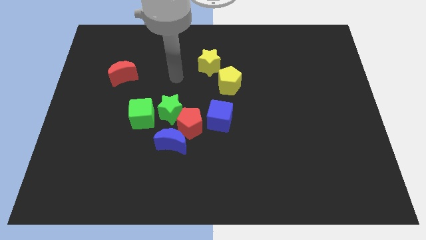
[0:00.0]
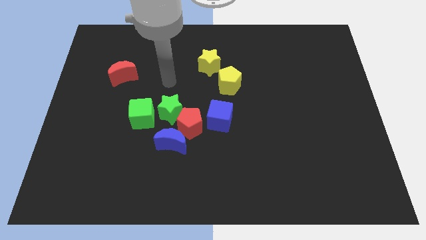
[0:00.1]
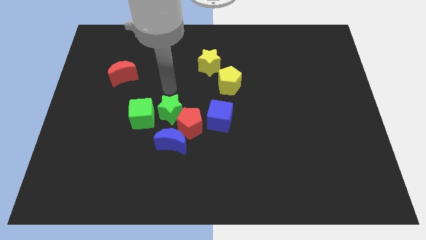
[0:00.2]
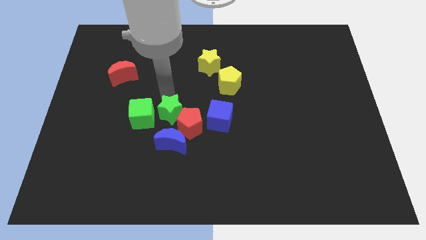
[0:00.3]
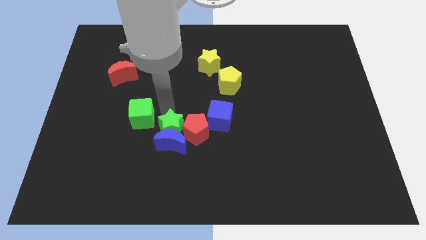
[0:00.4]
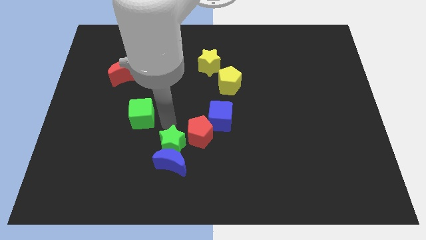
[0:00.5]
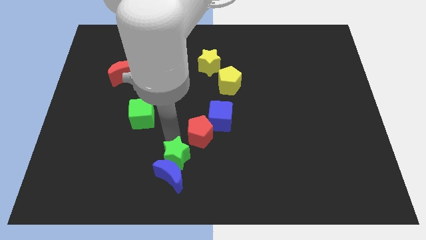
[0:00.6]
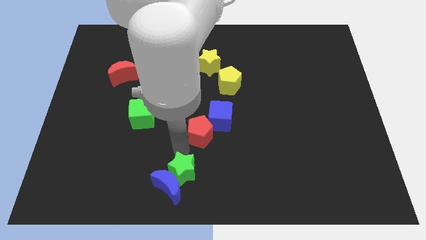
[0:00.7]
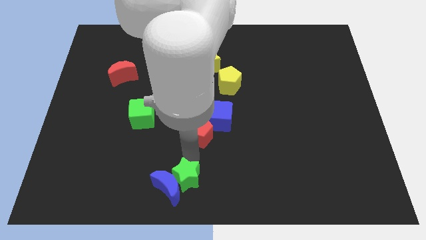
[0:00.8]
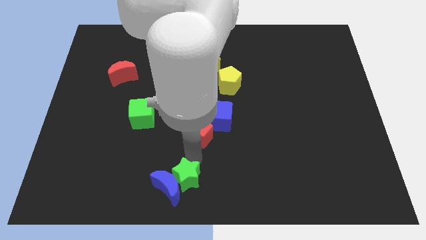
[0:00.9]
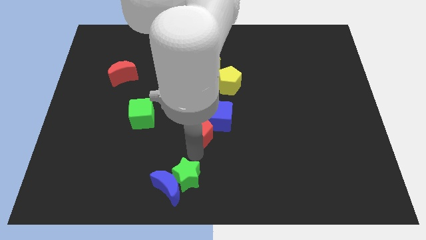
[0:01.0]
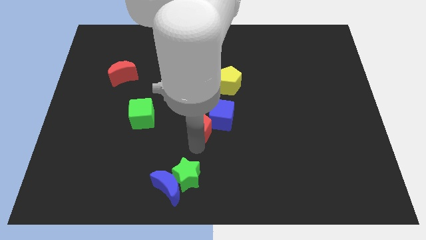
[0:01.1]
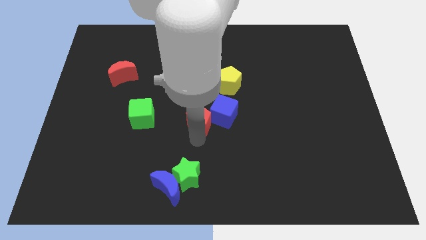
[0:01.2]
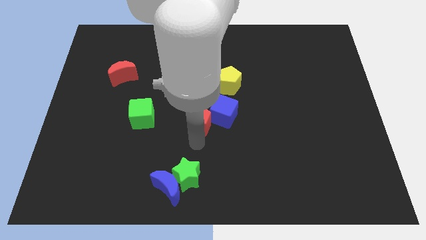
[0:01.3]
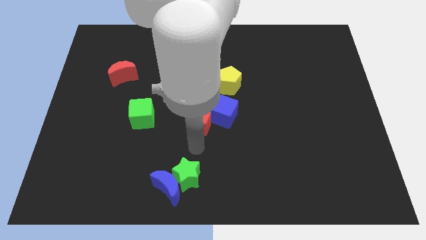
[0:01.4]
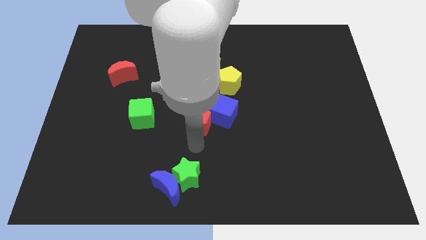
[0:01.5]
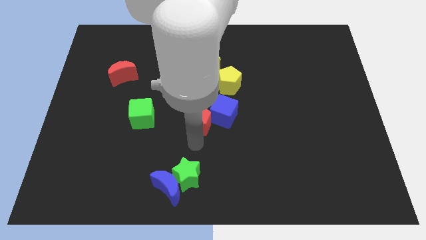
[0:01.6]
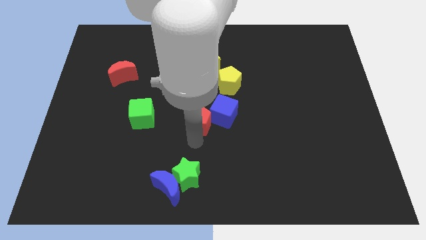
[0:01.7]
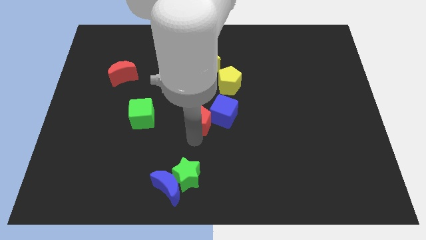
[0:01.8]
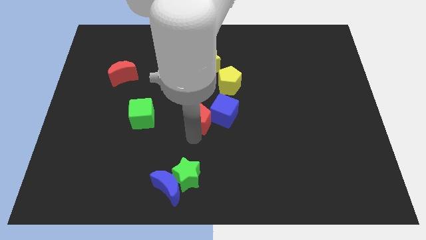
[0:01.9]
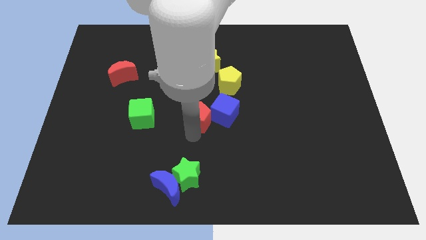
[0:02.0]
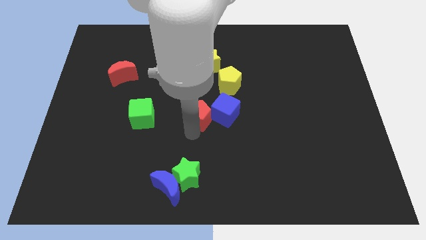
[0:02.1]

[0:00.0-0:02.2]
pull the red pentagon apart from the green star, blue moon, and blue cube

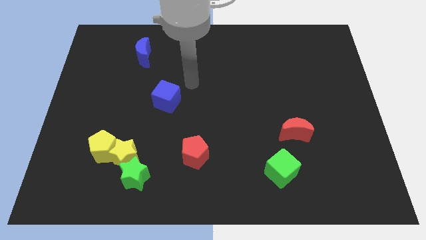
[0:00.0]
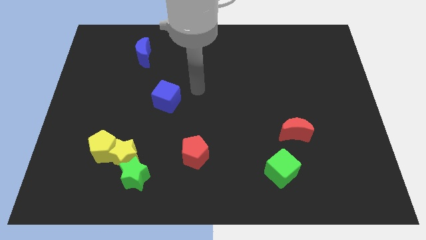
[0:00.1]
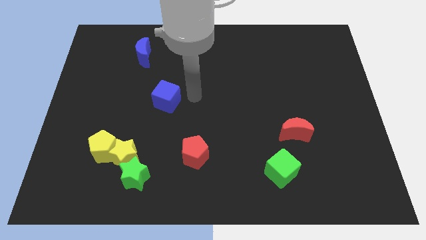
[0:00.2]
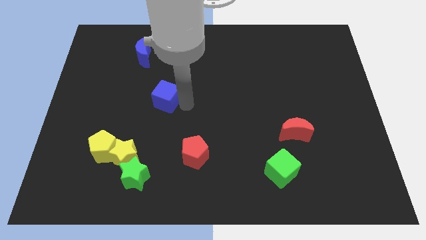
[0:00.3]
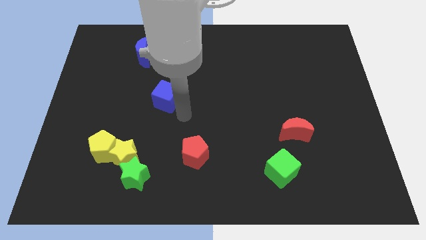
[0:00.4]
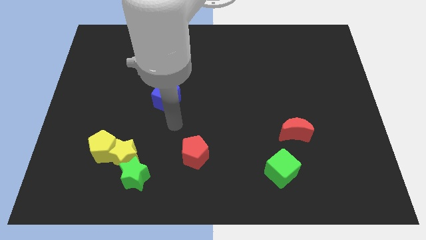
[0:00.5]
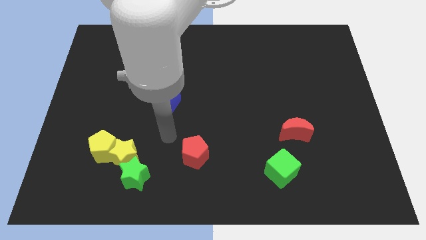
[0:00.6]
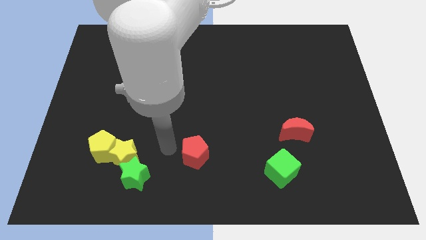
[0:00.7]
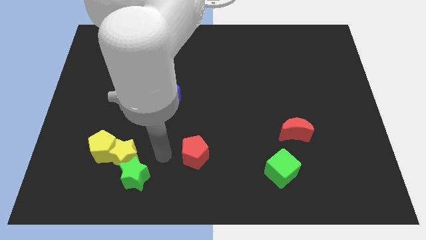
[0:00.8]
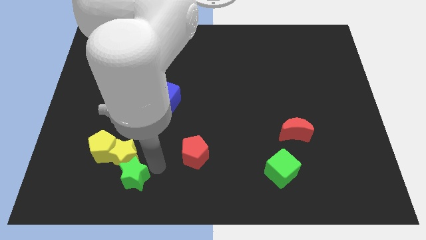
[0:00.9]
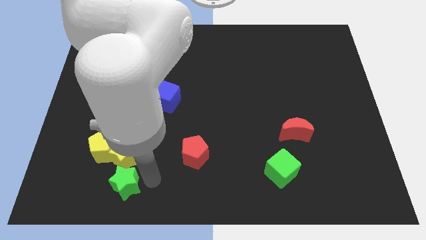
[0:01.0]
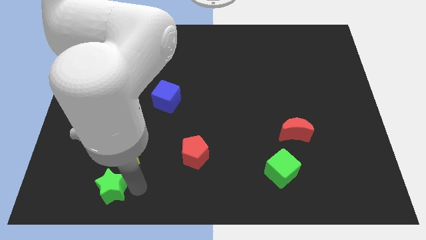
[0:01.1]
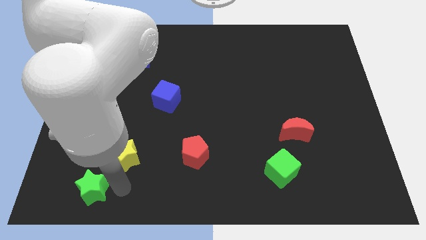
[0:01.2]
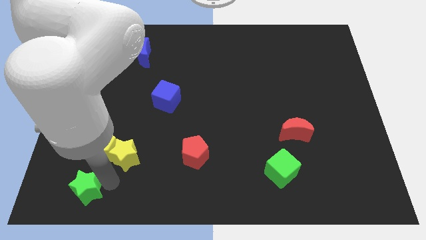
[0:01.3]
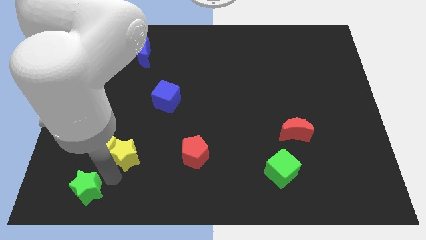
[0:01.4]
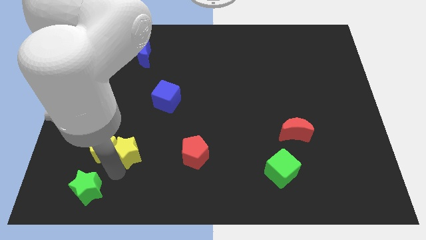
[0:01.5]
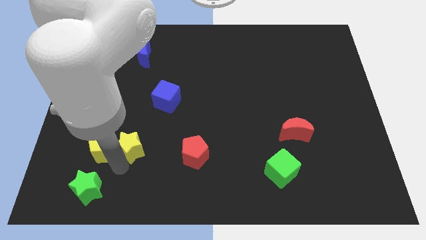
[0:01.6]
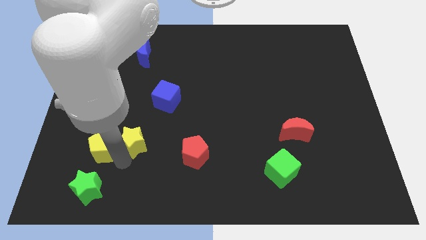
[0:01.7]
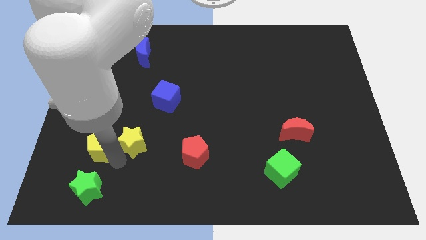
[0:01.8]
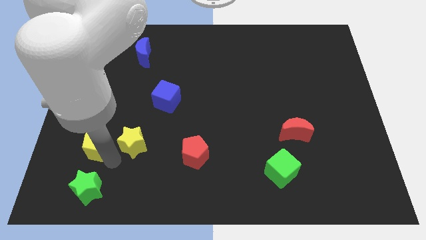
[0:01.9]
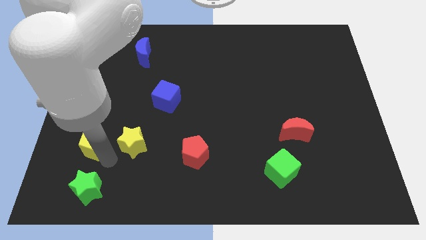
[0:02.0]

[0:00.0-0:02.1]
move the yellow star away from the yellow pentagon and green star

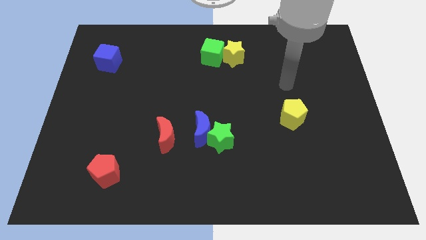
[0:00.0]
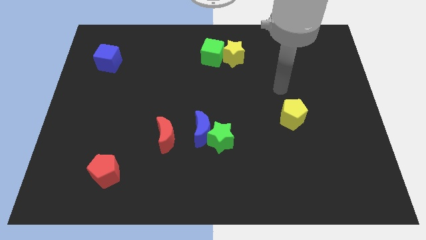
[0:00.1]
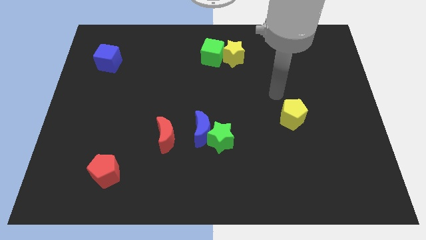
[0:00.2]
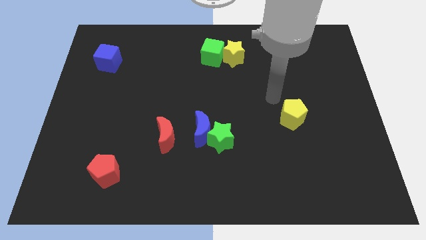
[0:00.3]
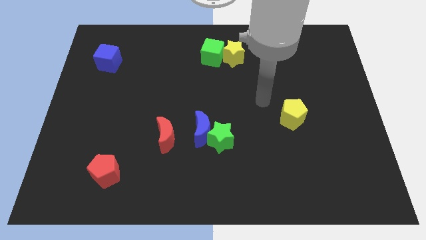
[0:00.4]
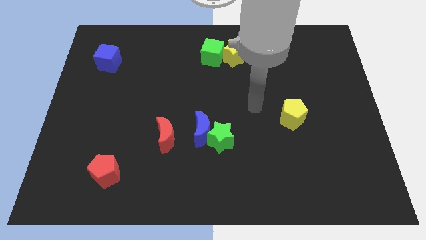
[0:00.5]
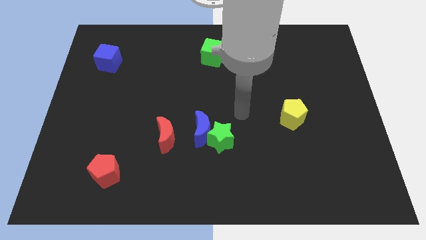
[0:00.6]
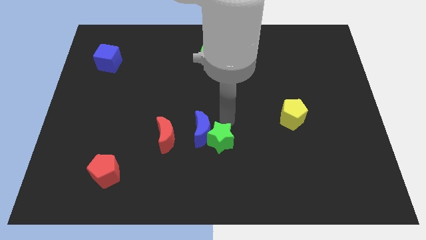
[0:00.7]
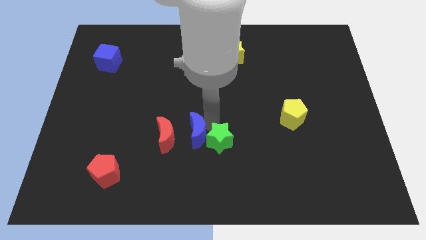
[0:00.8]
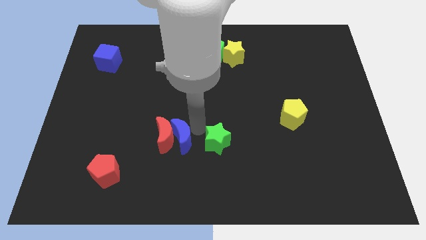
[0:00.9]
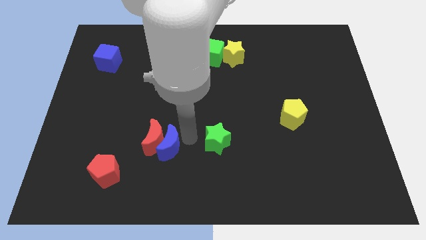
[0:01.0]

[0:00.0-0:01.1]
move the green star away from the blue moon

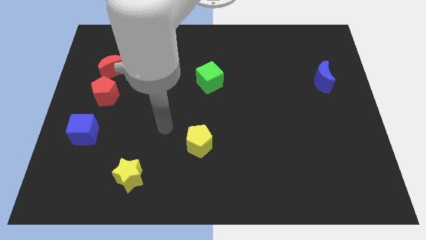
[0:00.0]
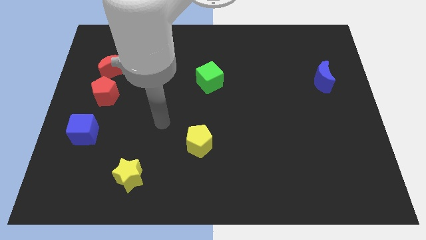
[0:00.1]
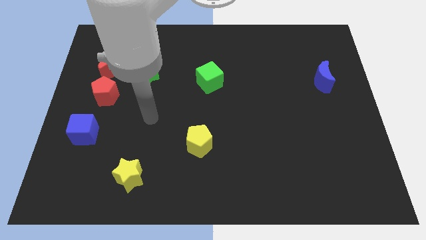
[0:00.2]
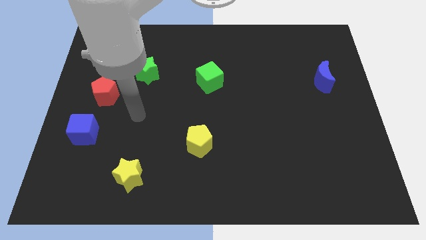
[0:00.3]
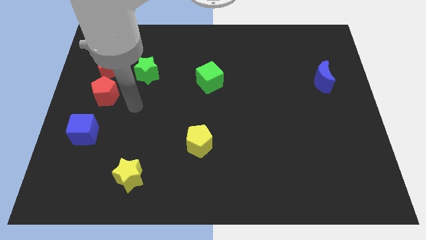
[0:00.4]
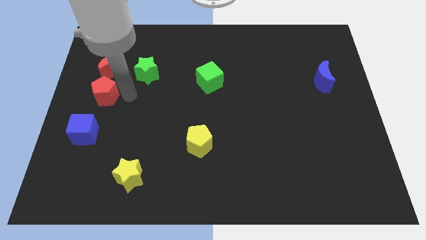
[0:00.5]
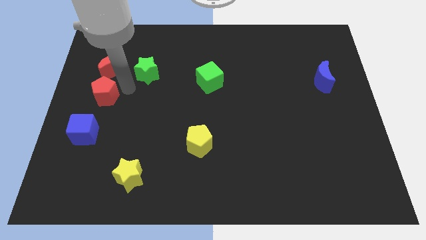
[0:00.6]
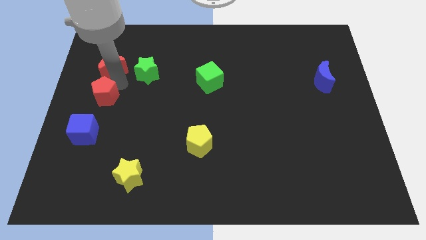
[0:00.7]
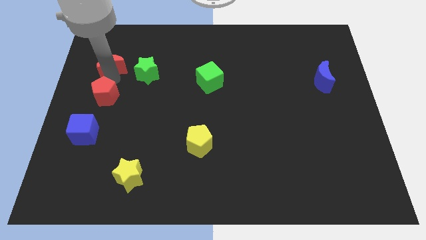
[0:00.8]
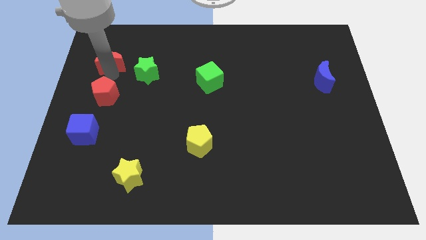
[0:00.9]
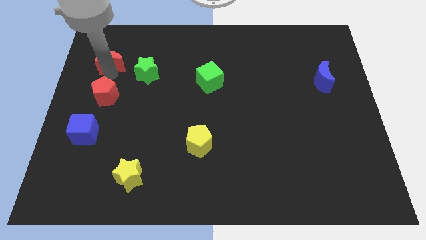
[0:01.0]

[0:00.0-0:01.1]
separate the red pentagon from the red moon

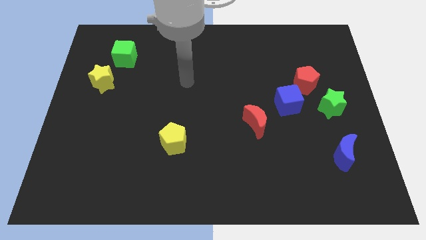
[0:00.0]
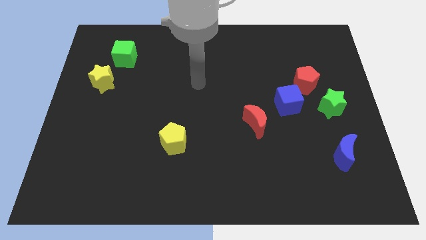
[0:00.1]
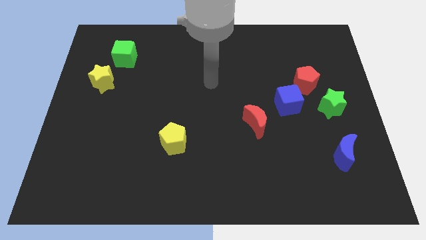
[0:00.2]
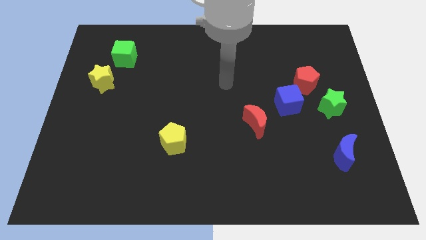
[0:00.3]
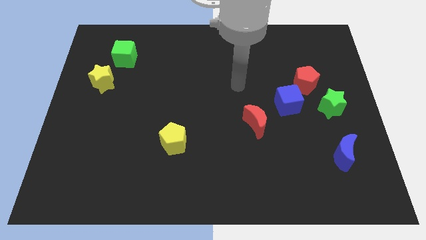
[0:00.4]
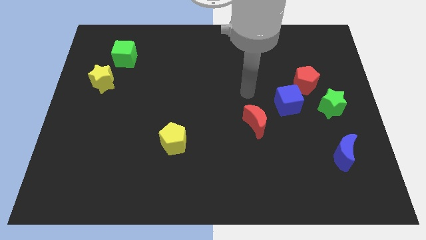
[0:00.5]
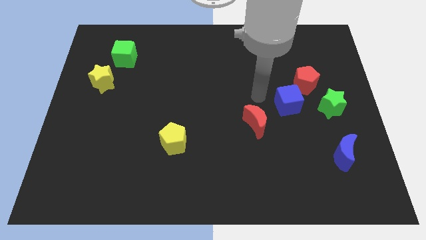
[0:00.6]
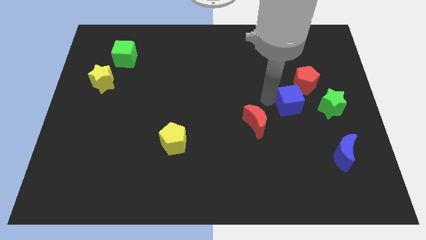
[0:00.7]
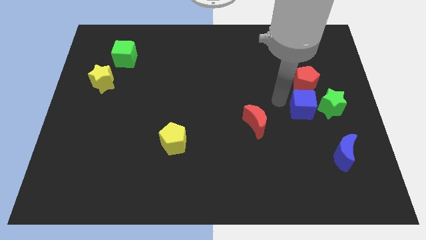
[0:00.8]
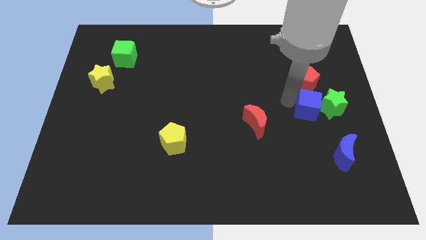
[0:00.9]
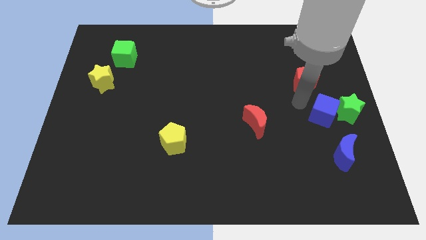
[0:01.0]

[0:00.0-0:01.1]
move the red pentagon away from the blue cube and green star

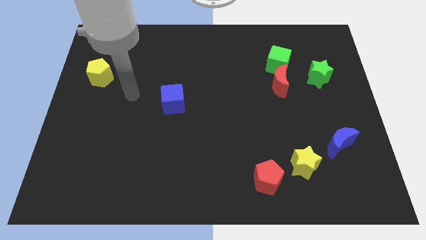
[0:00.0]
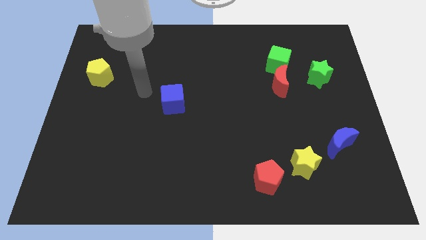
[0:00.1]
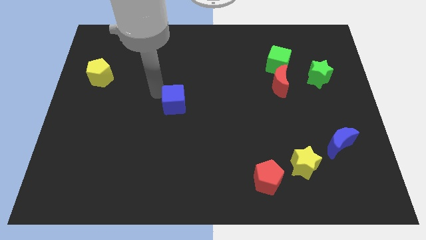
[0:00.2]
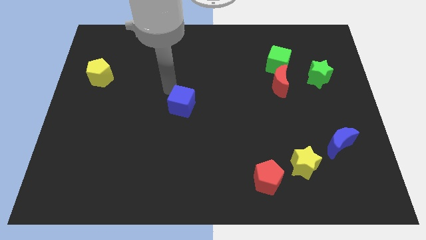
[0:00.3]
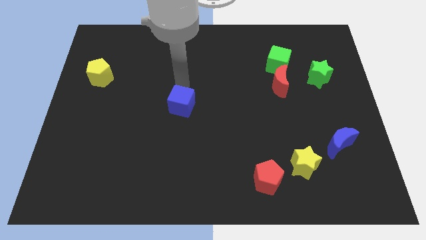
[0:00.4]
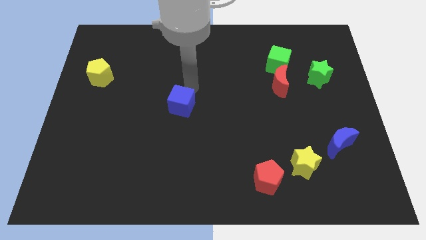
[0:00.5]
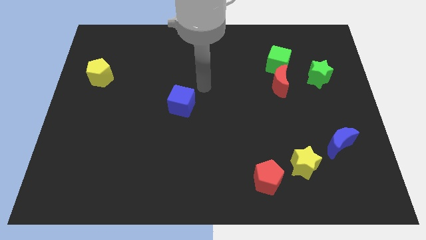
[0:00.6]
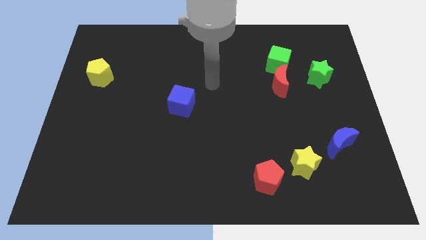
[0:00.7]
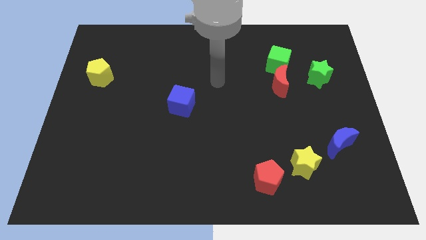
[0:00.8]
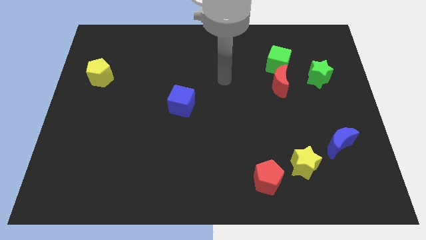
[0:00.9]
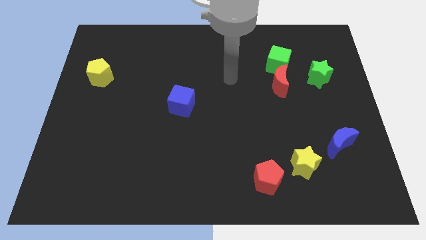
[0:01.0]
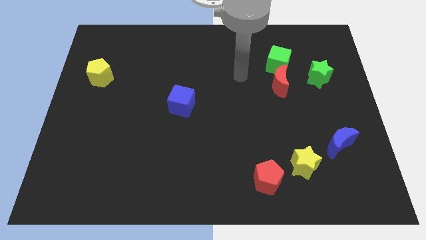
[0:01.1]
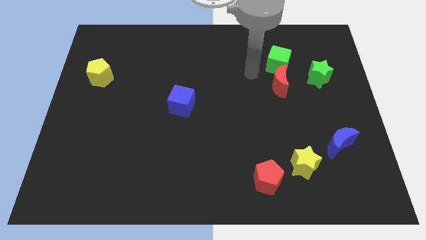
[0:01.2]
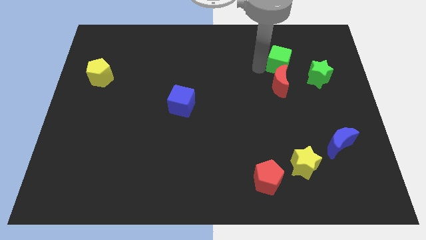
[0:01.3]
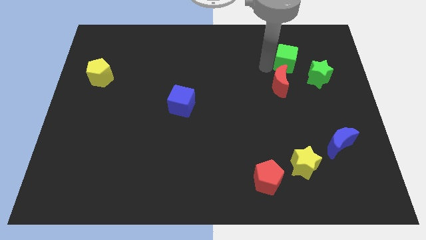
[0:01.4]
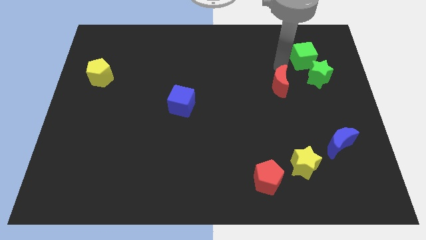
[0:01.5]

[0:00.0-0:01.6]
separate the red moon from the green cube
